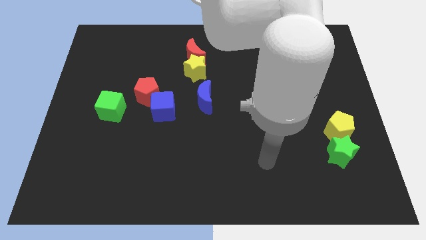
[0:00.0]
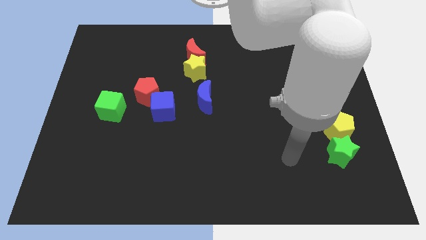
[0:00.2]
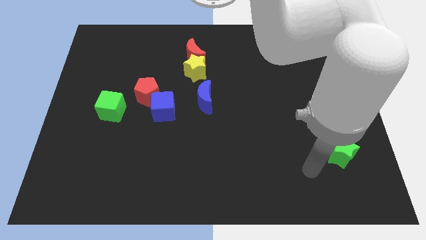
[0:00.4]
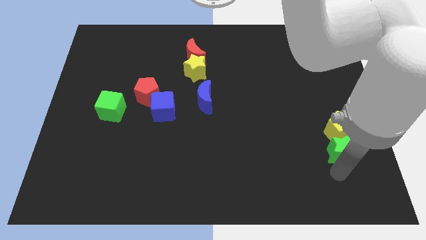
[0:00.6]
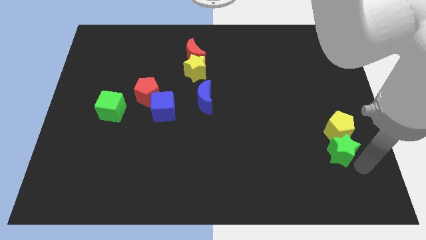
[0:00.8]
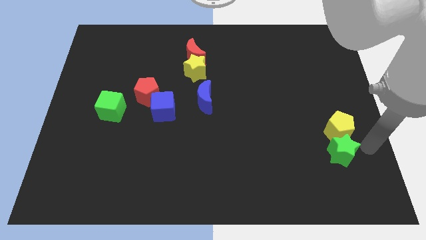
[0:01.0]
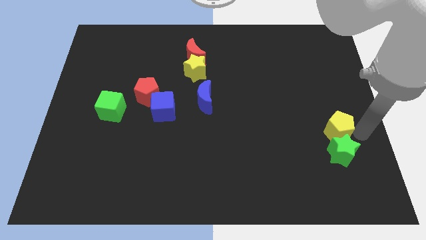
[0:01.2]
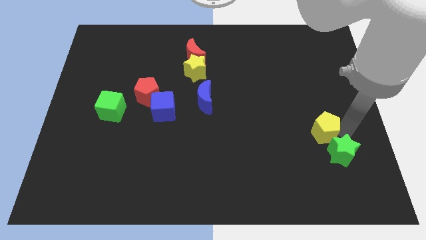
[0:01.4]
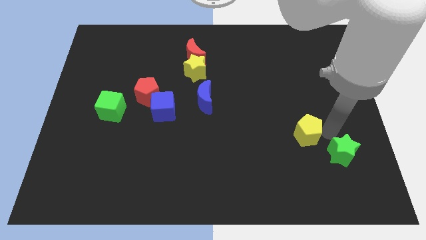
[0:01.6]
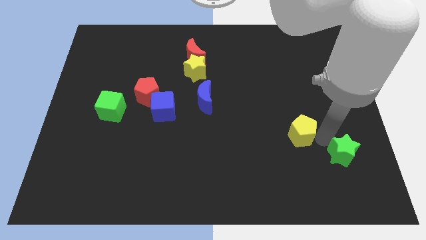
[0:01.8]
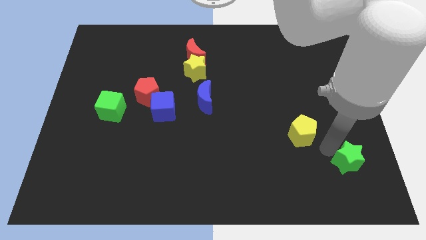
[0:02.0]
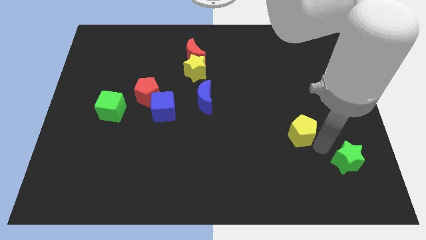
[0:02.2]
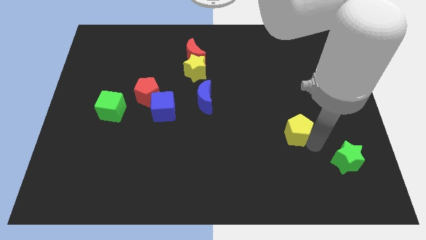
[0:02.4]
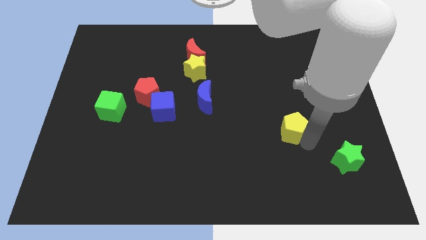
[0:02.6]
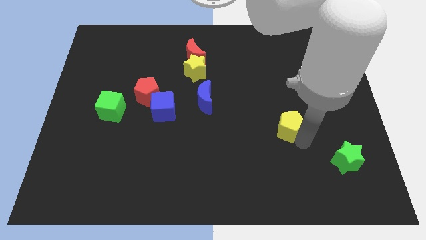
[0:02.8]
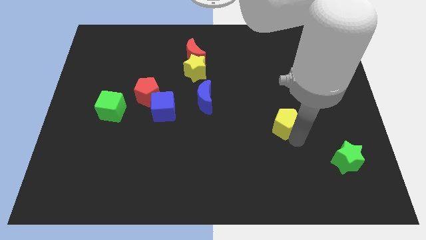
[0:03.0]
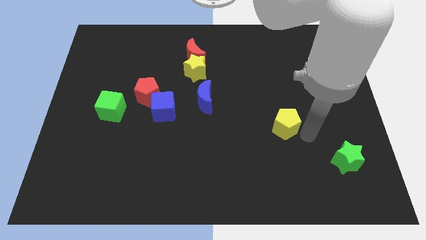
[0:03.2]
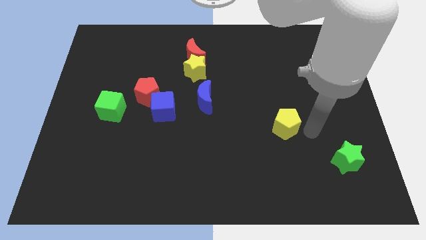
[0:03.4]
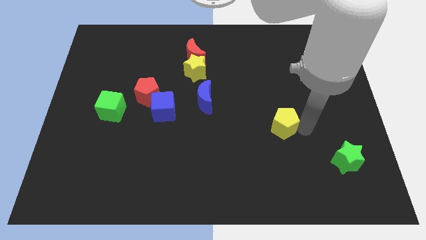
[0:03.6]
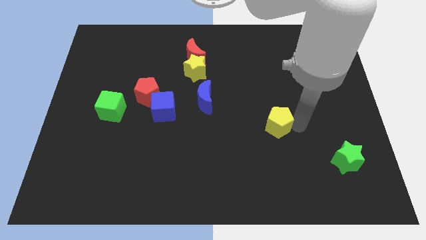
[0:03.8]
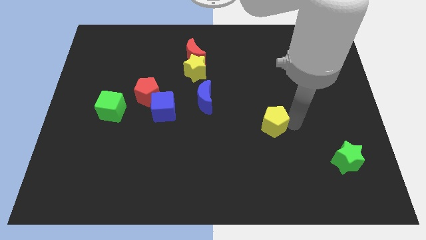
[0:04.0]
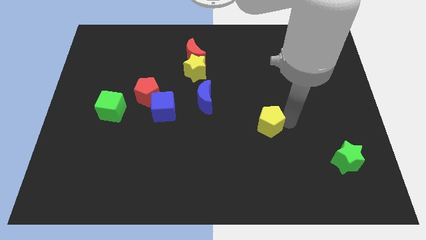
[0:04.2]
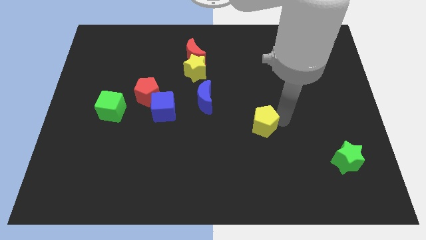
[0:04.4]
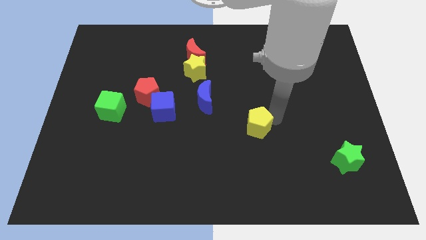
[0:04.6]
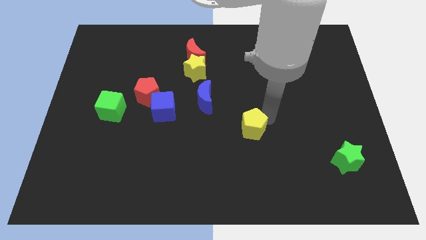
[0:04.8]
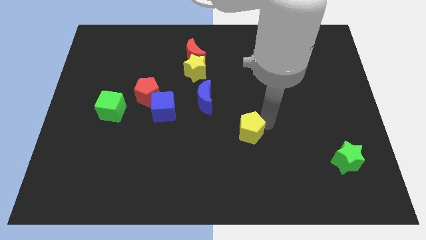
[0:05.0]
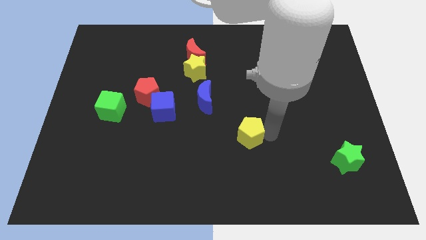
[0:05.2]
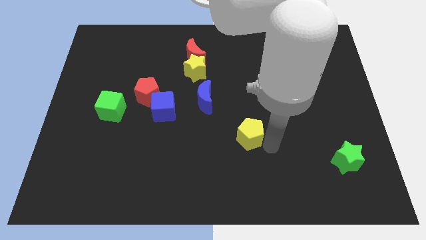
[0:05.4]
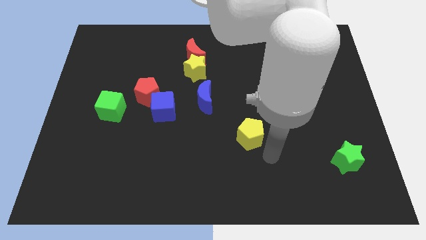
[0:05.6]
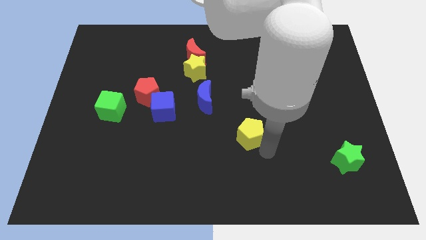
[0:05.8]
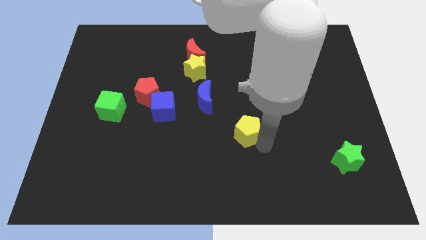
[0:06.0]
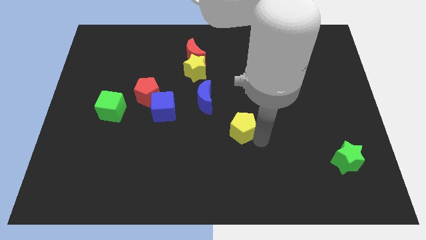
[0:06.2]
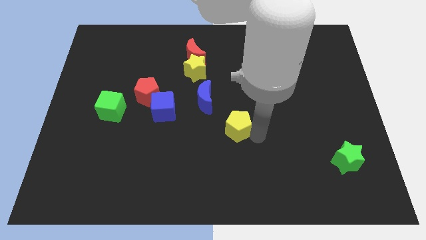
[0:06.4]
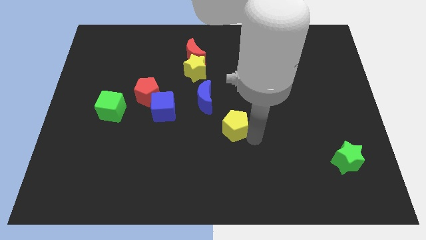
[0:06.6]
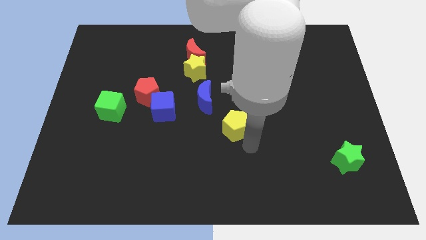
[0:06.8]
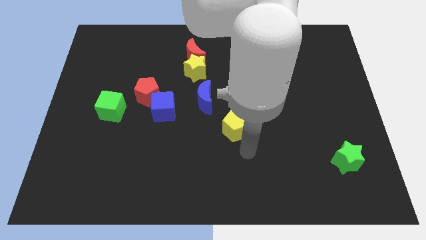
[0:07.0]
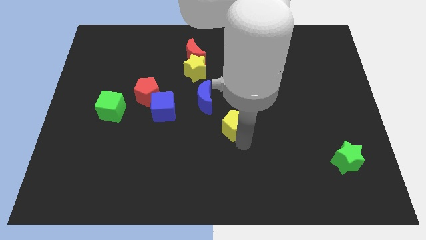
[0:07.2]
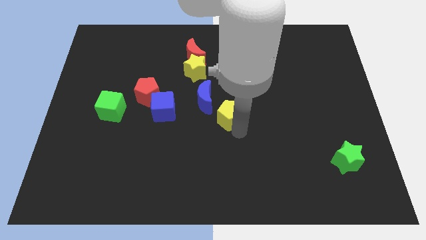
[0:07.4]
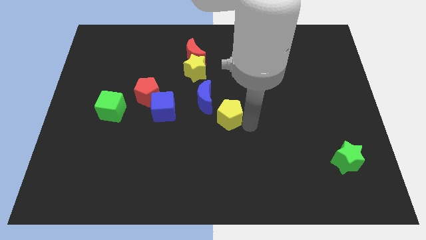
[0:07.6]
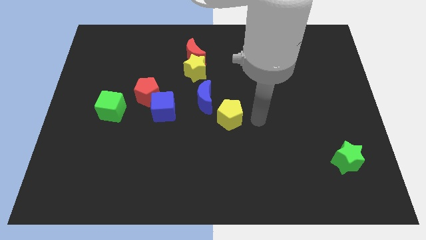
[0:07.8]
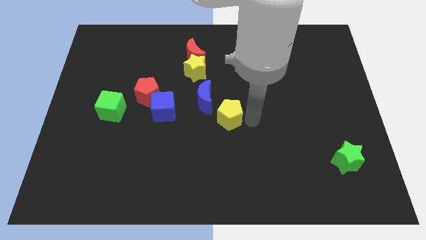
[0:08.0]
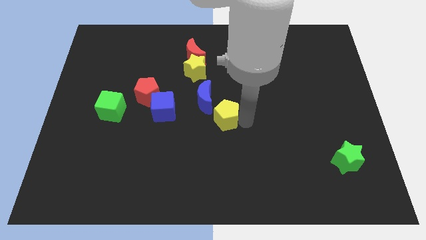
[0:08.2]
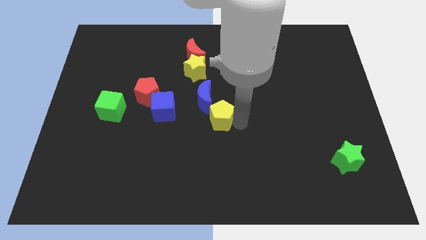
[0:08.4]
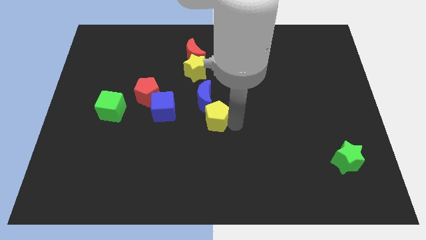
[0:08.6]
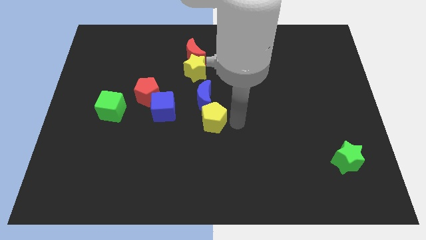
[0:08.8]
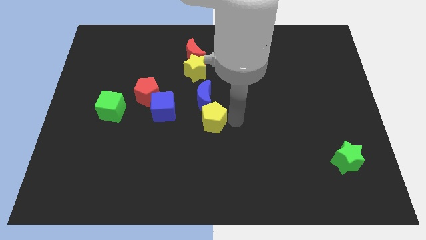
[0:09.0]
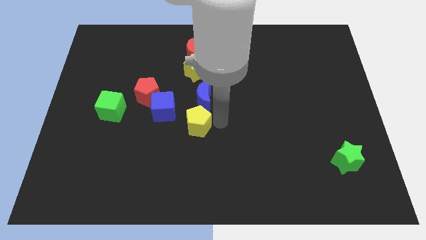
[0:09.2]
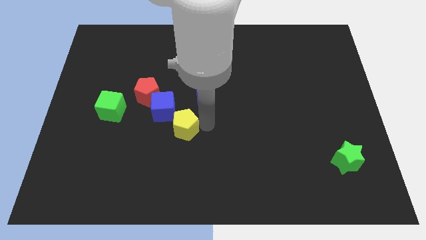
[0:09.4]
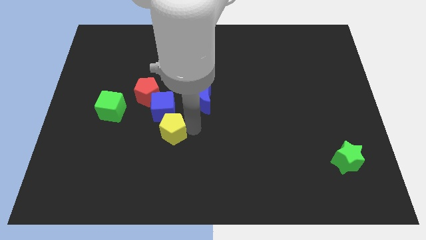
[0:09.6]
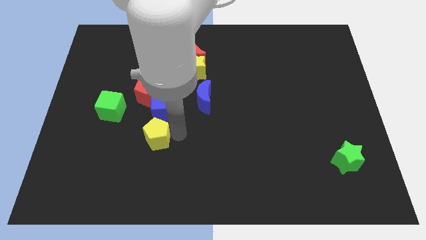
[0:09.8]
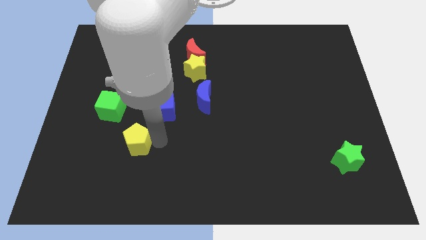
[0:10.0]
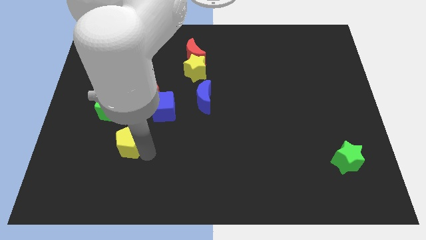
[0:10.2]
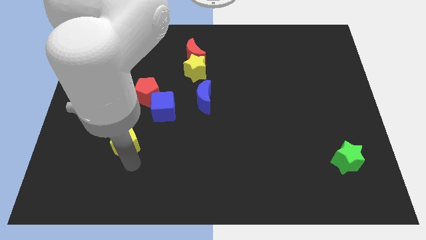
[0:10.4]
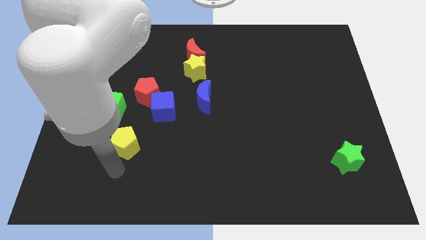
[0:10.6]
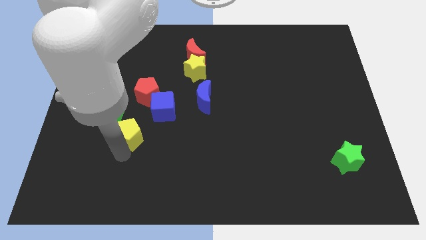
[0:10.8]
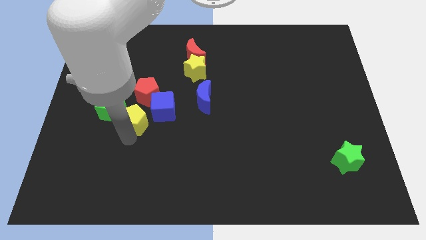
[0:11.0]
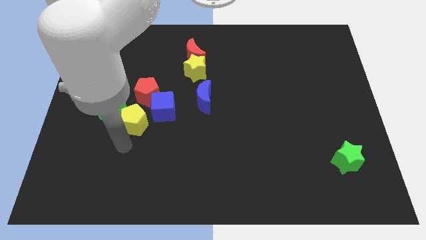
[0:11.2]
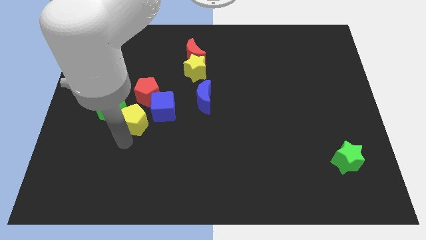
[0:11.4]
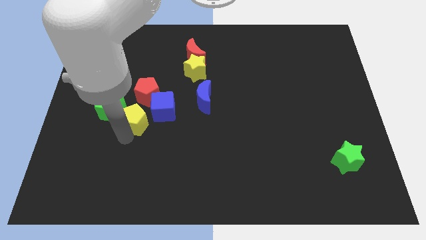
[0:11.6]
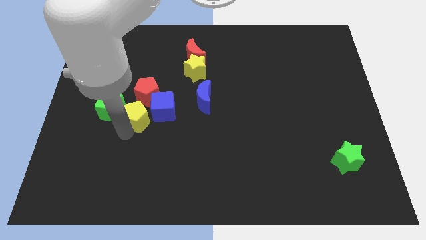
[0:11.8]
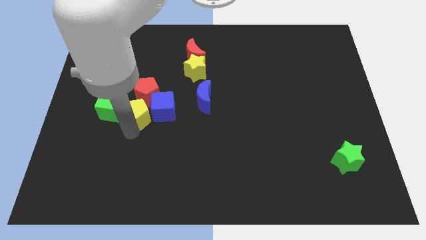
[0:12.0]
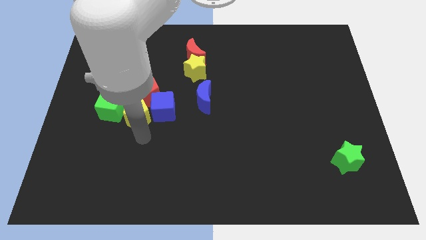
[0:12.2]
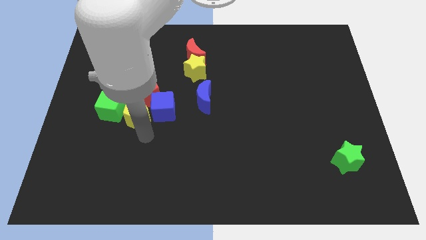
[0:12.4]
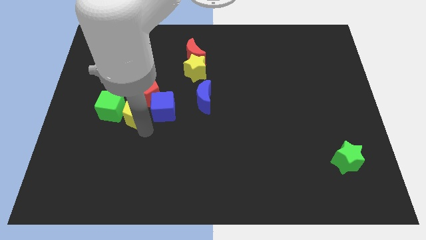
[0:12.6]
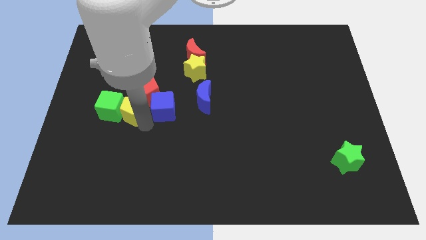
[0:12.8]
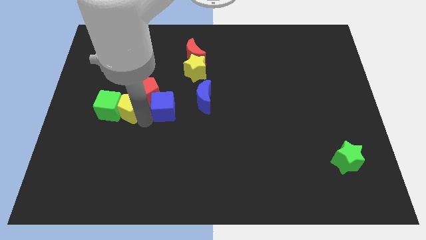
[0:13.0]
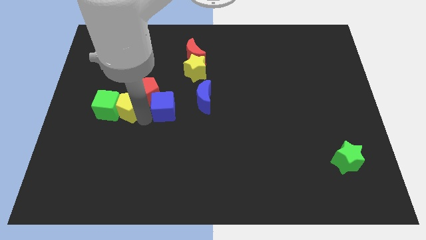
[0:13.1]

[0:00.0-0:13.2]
slide the yellow pentagon left of the red pentagon

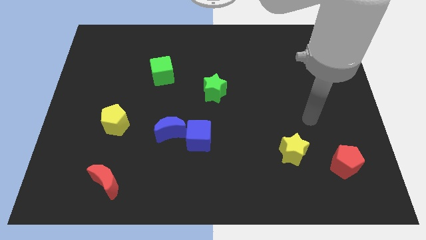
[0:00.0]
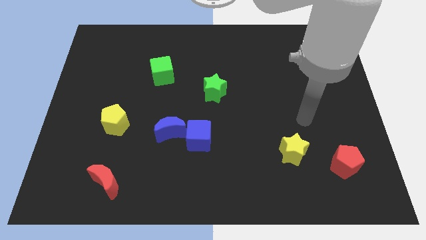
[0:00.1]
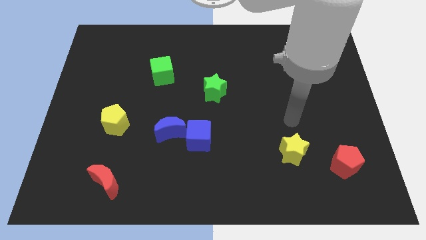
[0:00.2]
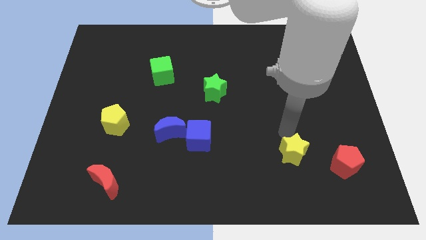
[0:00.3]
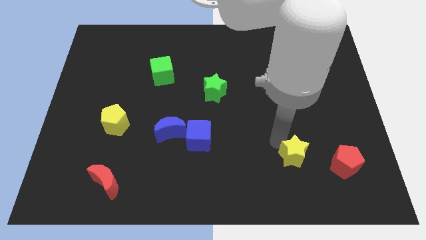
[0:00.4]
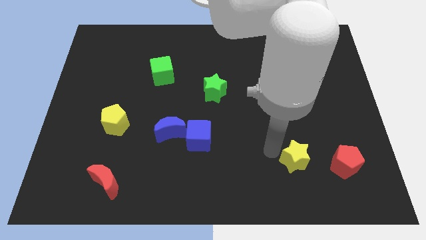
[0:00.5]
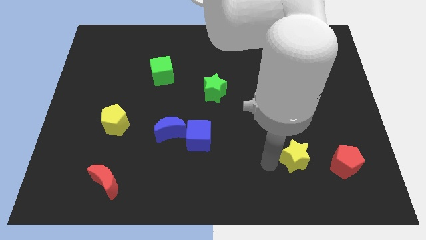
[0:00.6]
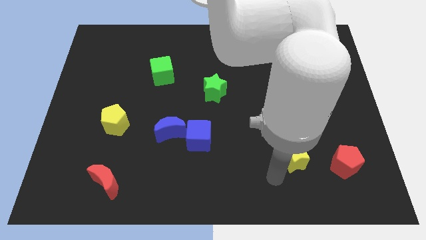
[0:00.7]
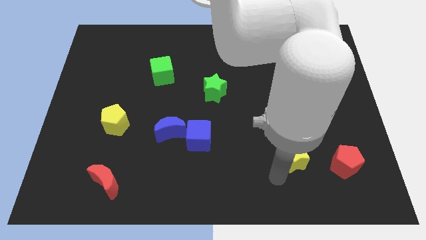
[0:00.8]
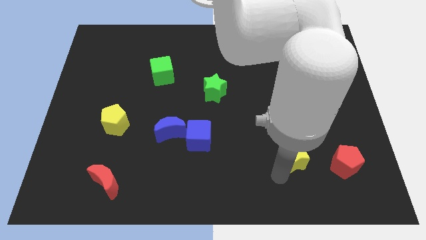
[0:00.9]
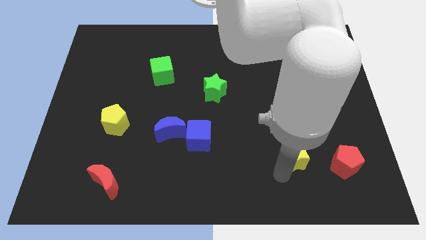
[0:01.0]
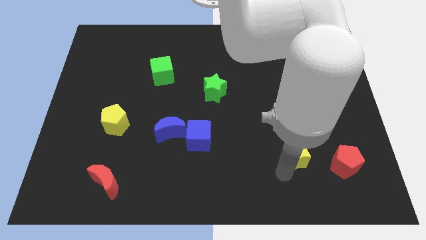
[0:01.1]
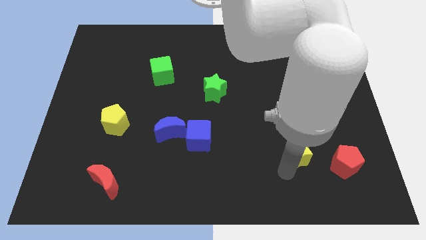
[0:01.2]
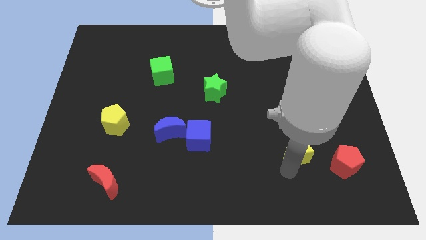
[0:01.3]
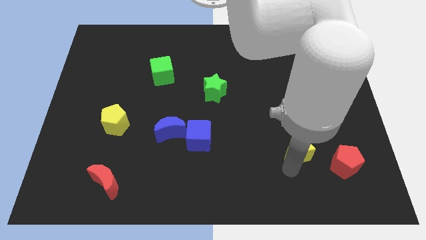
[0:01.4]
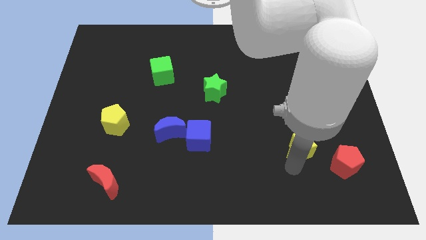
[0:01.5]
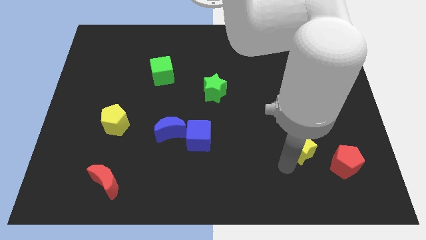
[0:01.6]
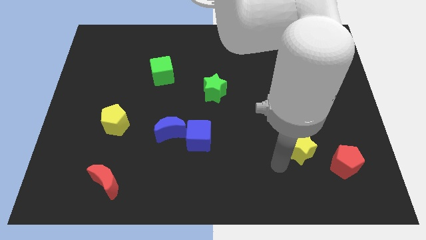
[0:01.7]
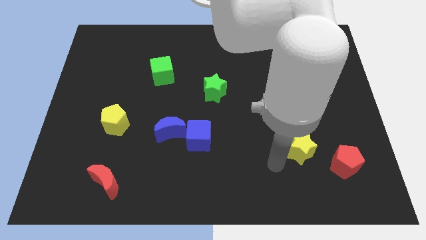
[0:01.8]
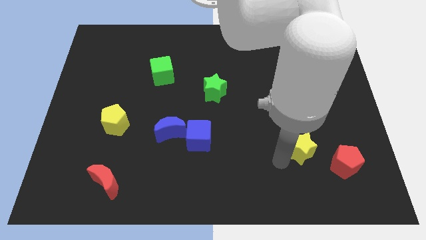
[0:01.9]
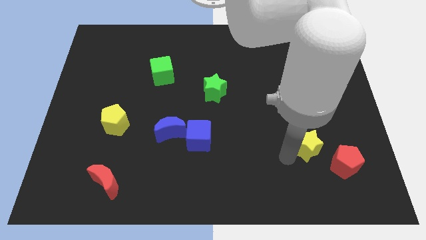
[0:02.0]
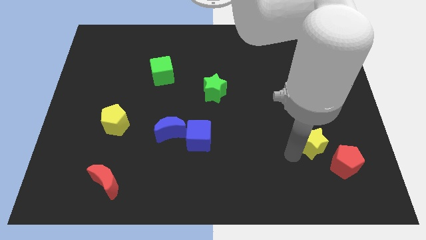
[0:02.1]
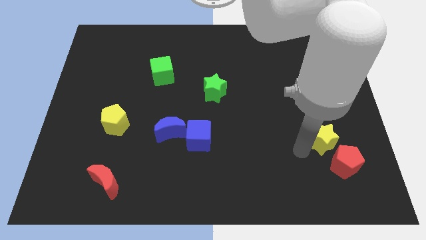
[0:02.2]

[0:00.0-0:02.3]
slide the yellow star to the top side of the red pentagon
